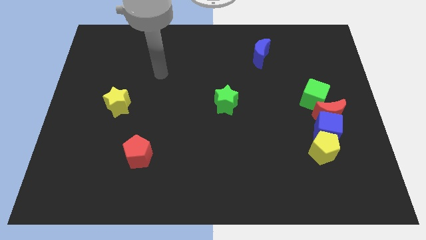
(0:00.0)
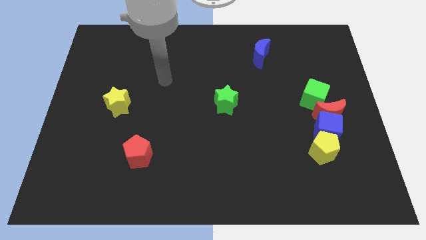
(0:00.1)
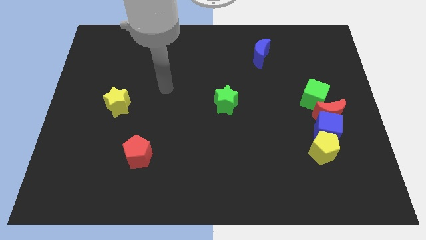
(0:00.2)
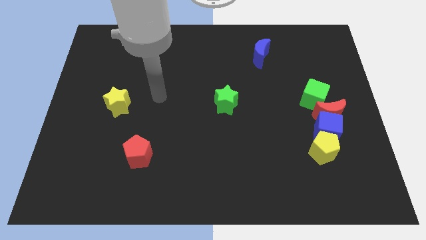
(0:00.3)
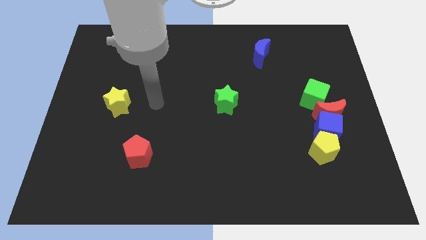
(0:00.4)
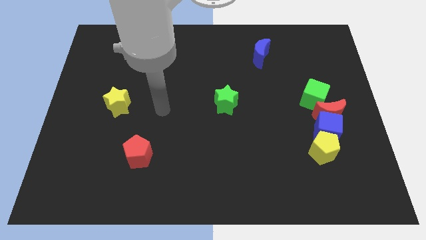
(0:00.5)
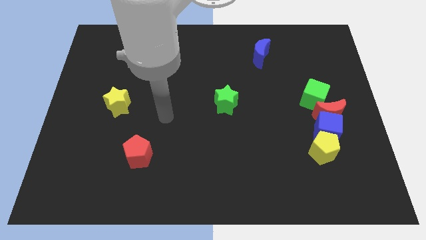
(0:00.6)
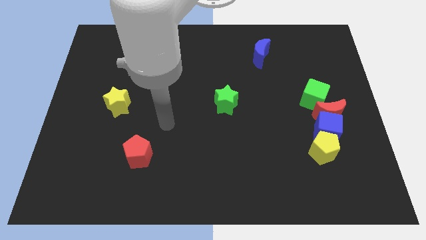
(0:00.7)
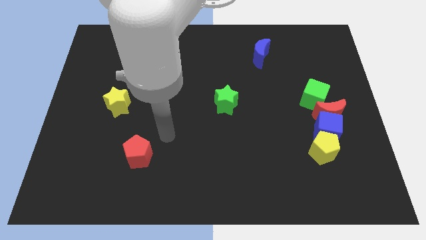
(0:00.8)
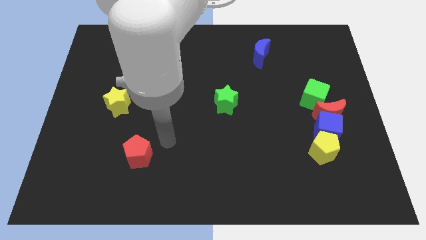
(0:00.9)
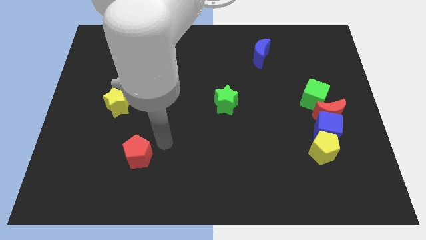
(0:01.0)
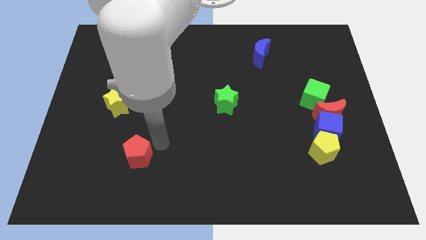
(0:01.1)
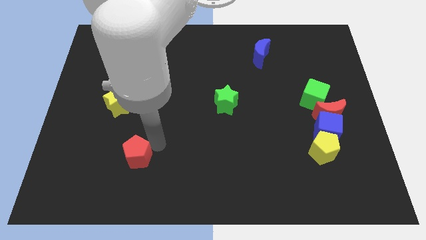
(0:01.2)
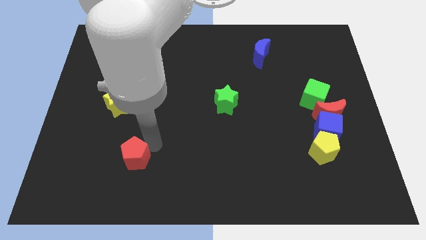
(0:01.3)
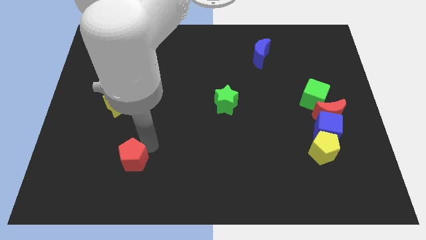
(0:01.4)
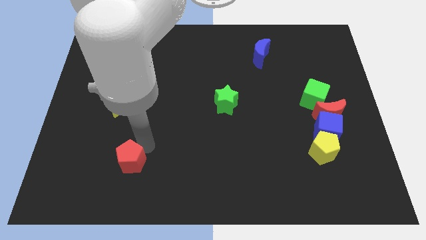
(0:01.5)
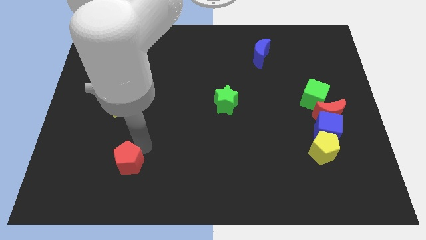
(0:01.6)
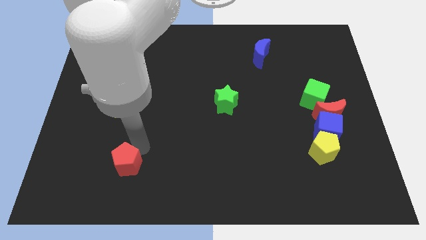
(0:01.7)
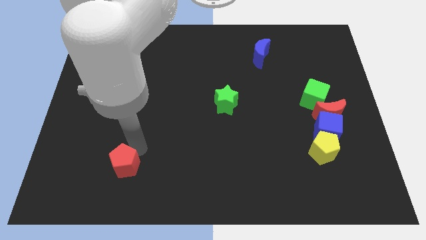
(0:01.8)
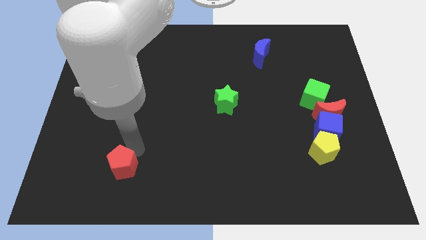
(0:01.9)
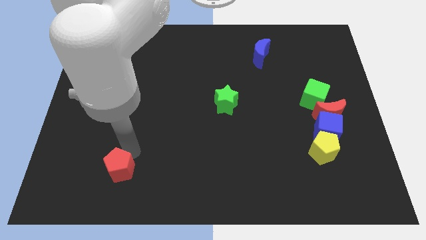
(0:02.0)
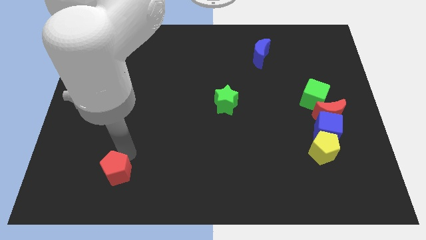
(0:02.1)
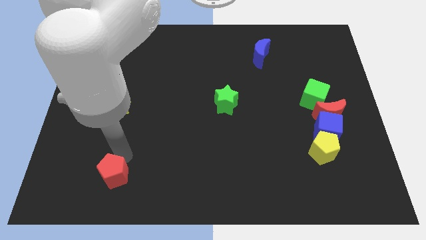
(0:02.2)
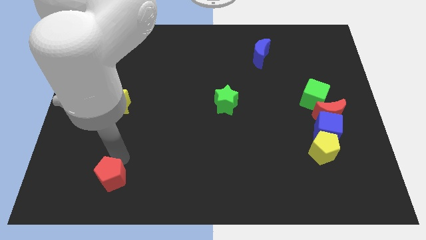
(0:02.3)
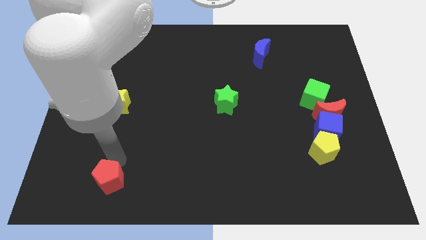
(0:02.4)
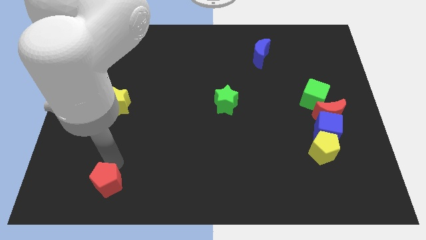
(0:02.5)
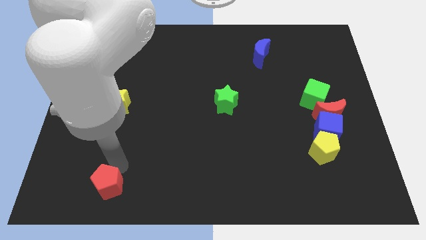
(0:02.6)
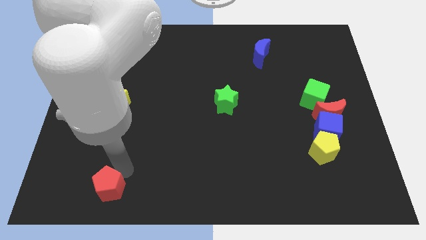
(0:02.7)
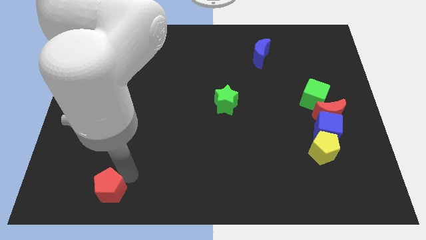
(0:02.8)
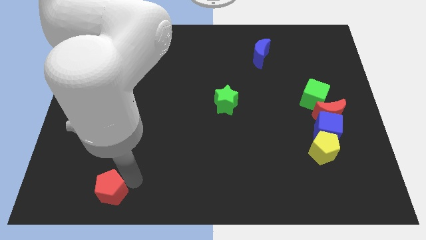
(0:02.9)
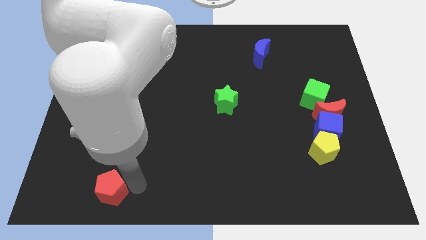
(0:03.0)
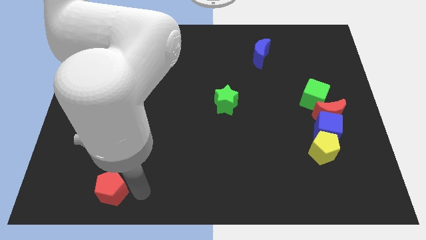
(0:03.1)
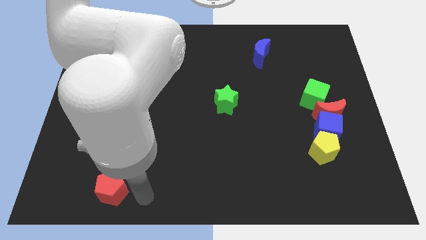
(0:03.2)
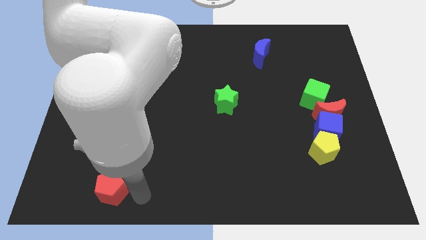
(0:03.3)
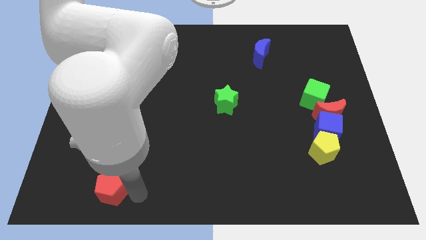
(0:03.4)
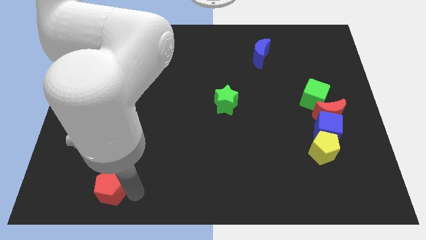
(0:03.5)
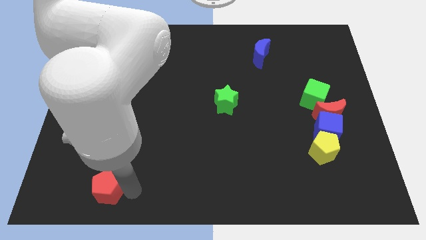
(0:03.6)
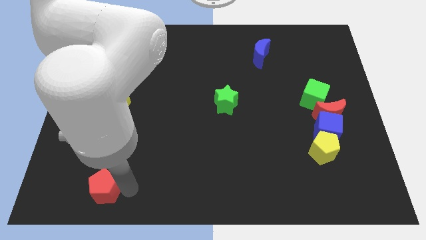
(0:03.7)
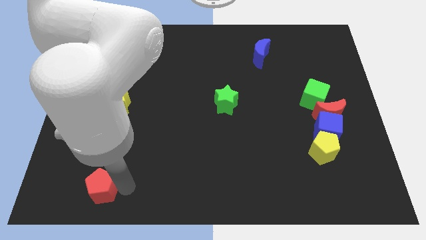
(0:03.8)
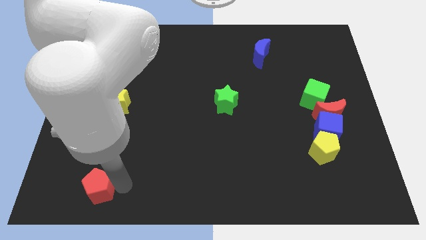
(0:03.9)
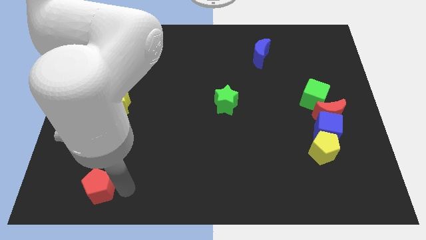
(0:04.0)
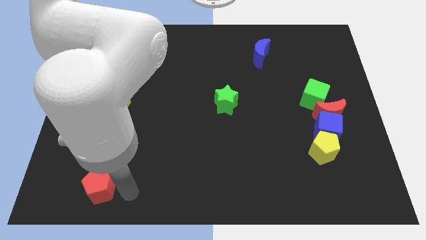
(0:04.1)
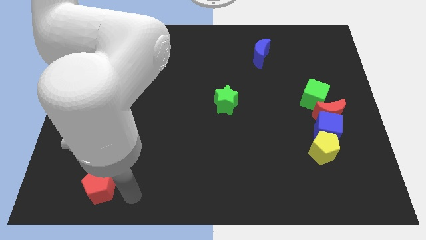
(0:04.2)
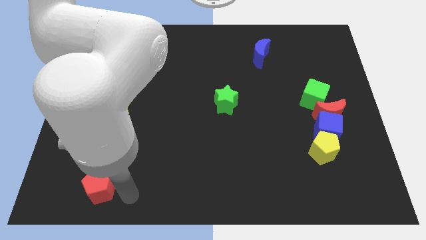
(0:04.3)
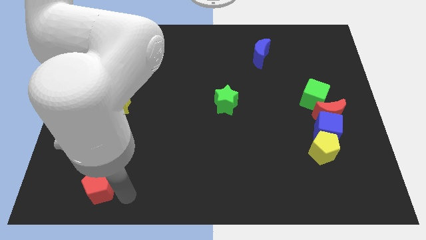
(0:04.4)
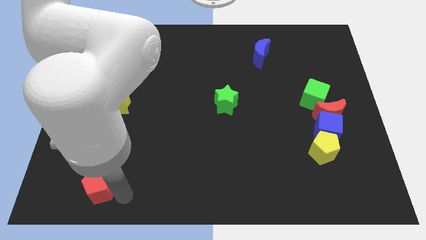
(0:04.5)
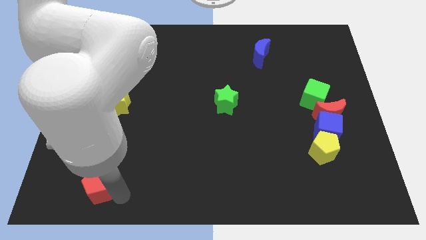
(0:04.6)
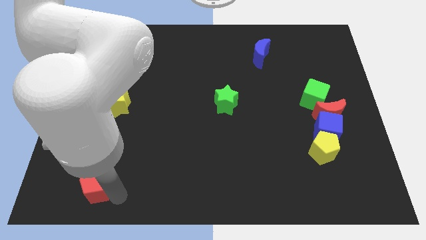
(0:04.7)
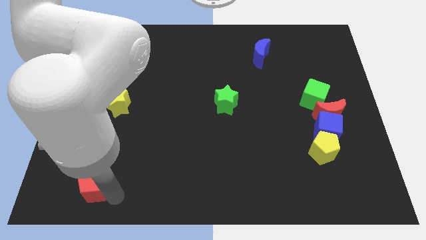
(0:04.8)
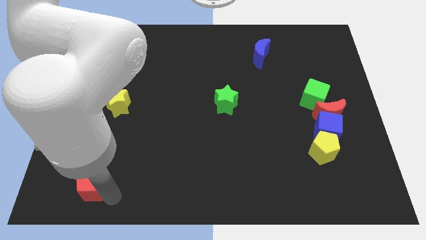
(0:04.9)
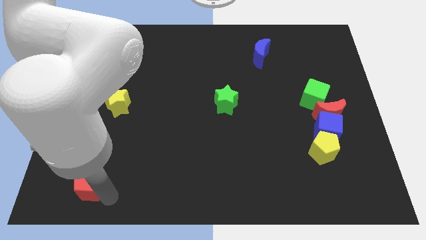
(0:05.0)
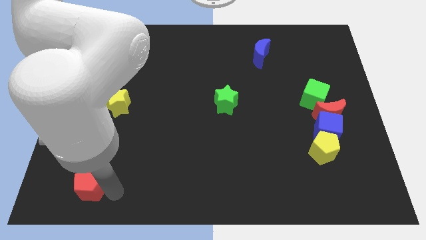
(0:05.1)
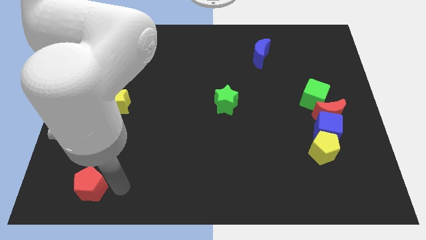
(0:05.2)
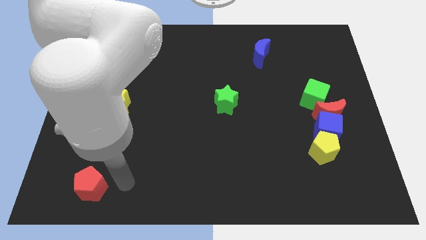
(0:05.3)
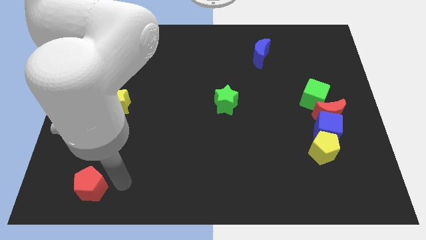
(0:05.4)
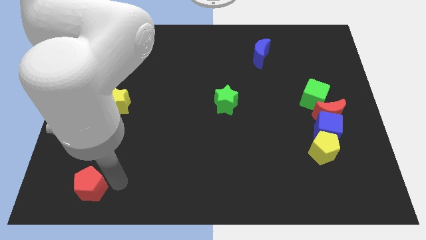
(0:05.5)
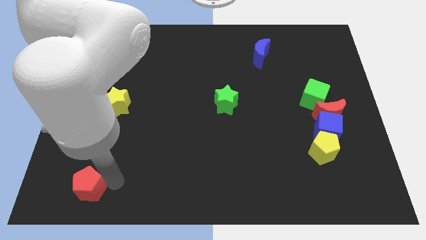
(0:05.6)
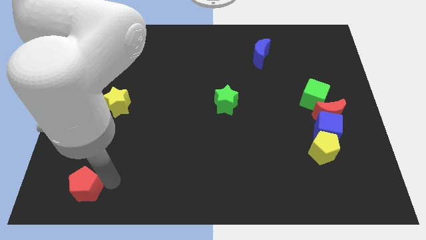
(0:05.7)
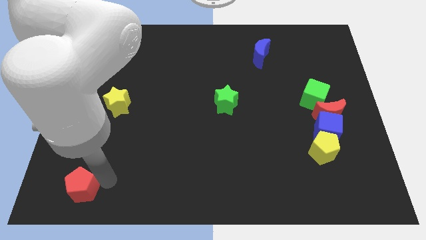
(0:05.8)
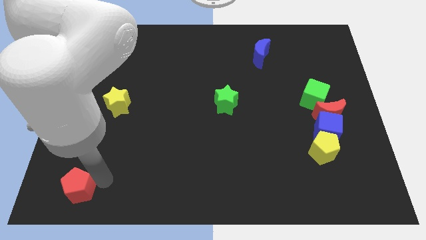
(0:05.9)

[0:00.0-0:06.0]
move the red pentagon to the bottom left of the board

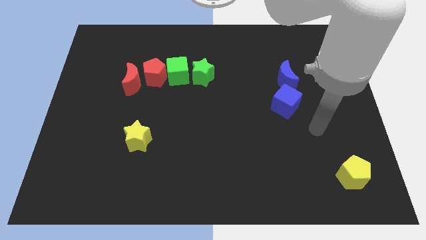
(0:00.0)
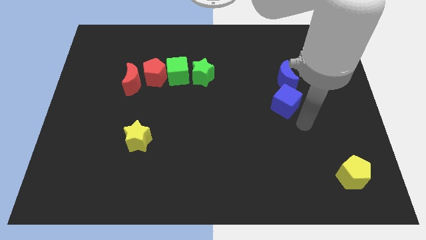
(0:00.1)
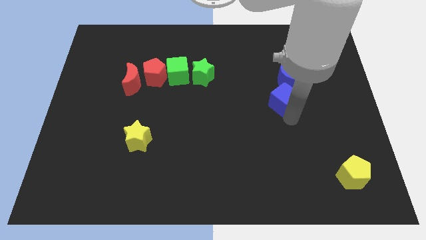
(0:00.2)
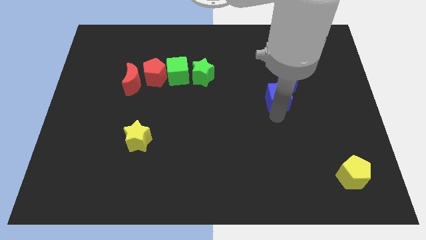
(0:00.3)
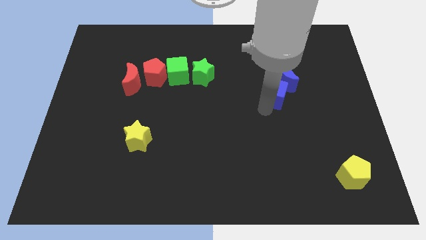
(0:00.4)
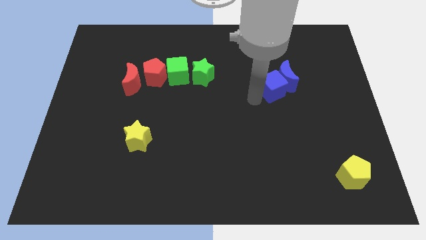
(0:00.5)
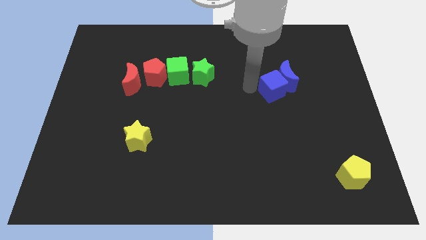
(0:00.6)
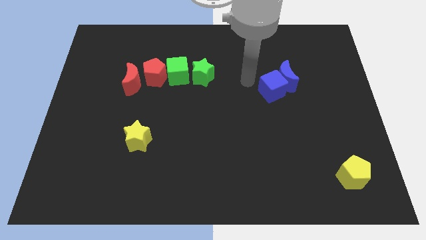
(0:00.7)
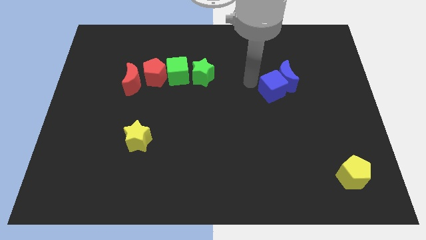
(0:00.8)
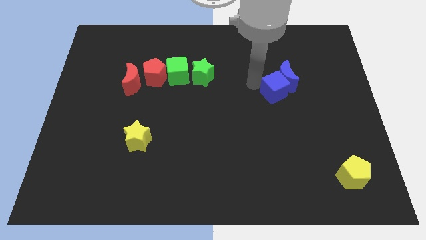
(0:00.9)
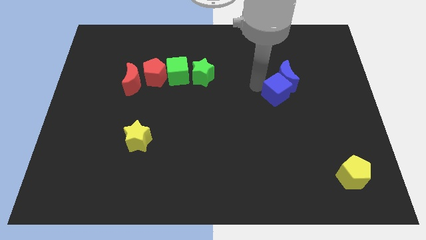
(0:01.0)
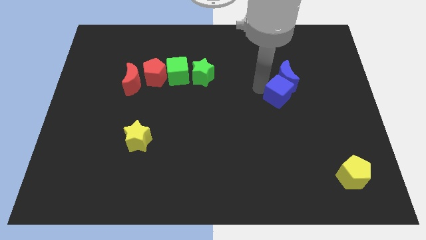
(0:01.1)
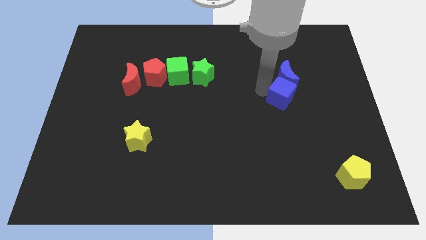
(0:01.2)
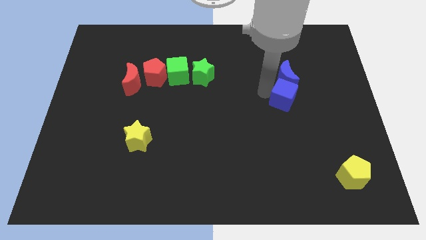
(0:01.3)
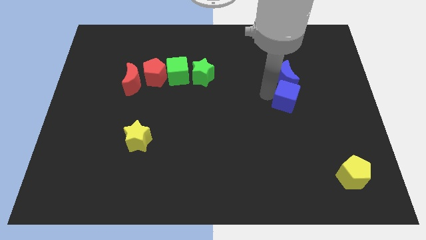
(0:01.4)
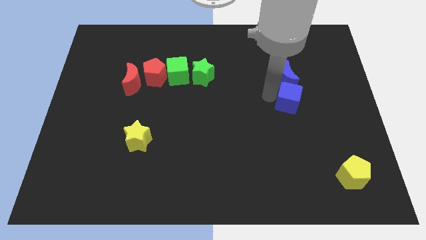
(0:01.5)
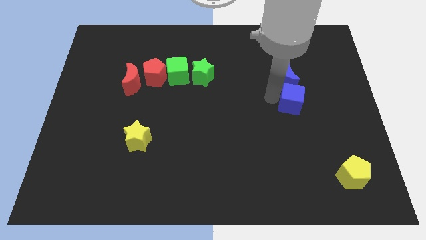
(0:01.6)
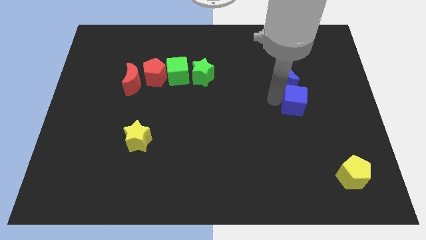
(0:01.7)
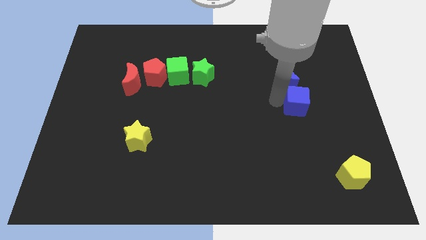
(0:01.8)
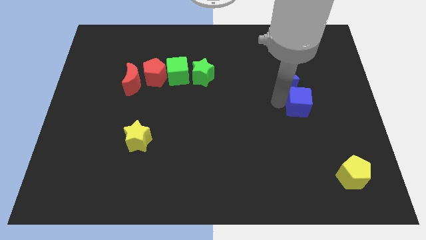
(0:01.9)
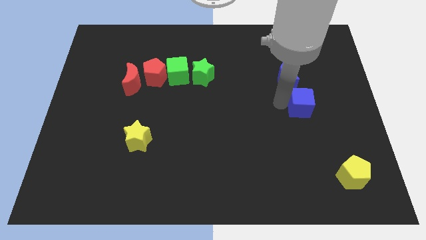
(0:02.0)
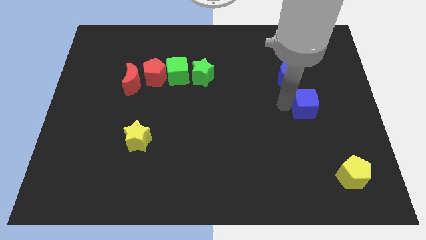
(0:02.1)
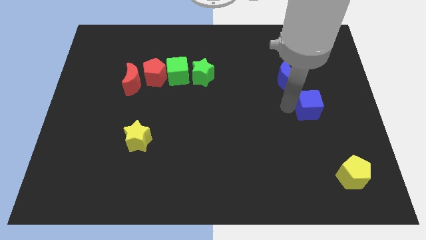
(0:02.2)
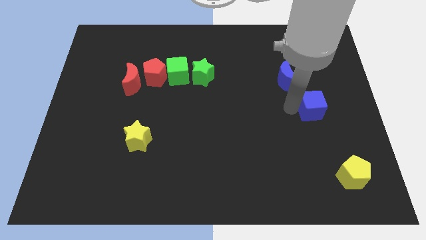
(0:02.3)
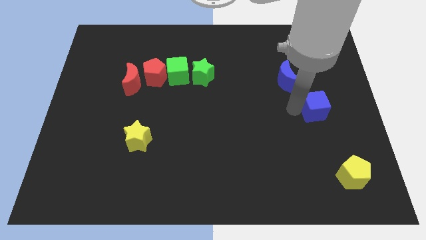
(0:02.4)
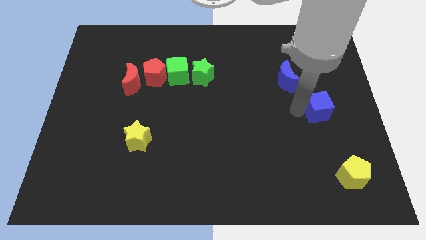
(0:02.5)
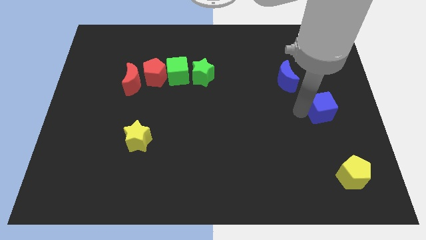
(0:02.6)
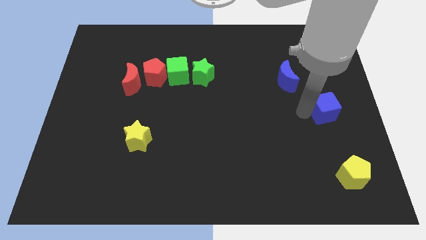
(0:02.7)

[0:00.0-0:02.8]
slide the blue cube to the center right
